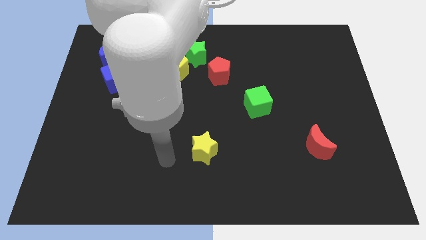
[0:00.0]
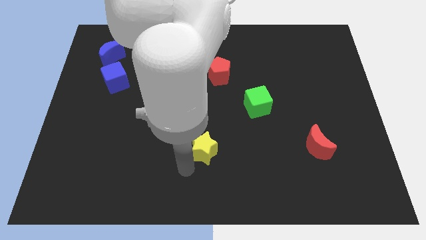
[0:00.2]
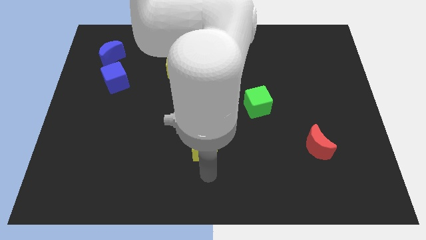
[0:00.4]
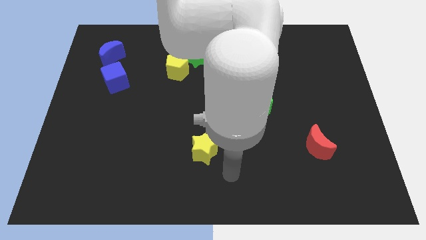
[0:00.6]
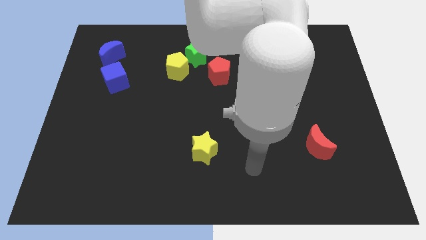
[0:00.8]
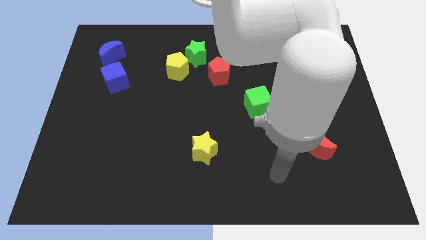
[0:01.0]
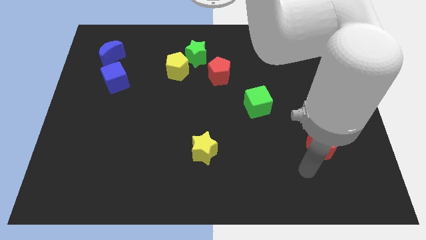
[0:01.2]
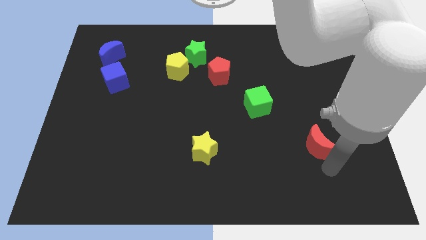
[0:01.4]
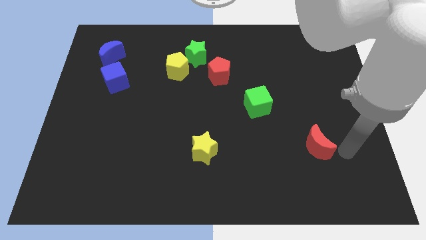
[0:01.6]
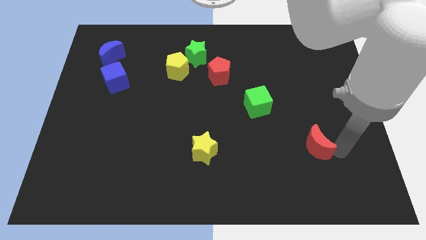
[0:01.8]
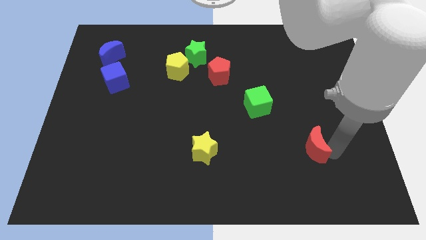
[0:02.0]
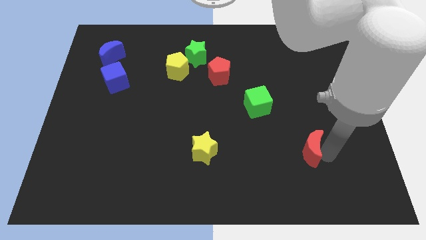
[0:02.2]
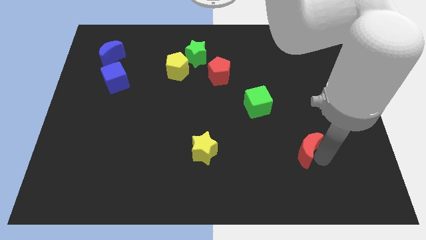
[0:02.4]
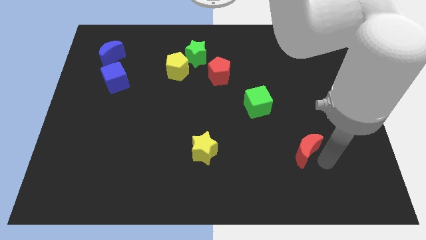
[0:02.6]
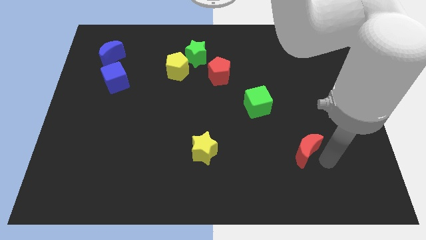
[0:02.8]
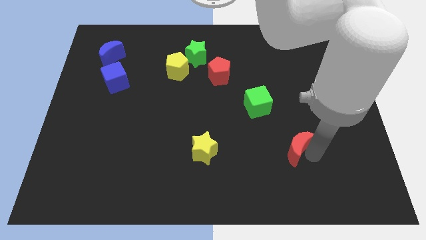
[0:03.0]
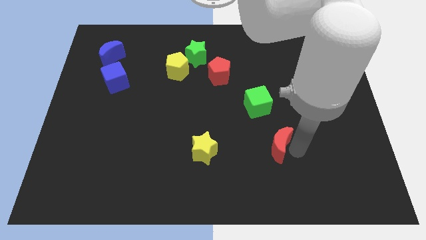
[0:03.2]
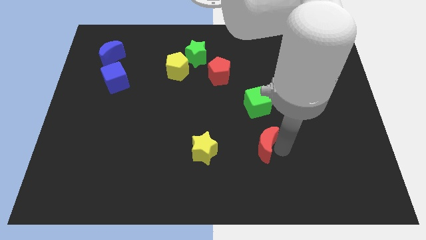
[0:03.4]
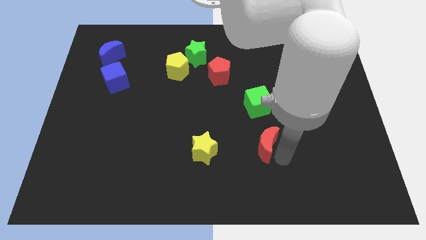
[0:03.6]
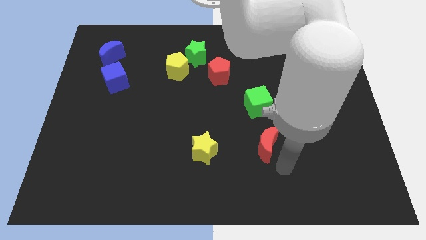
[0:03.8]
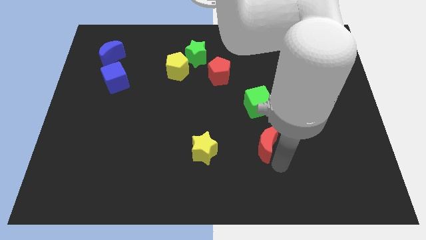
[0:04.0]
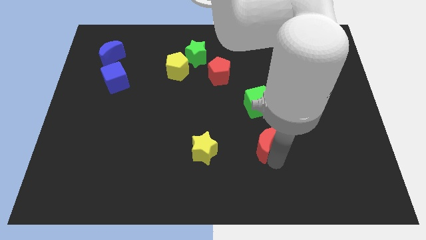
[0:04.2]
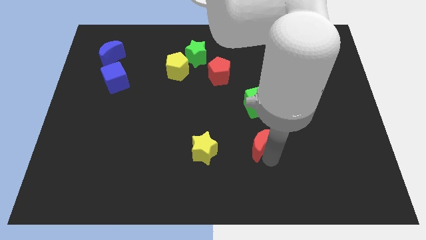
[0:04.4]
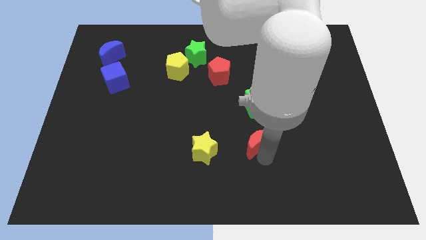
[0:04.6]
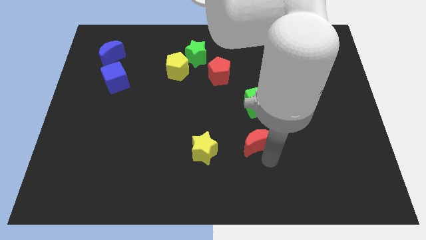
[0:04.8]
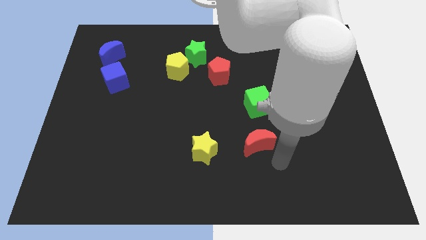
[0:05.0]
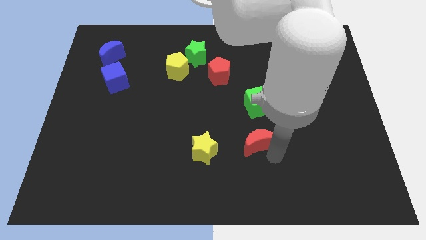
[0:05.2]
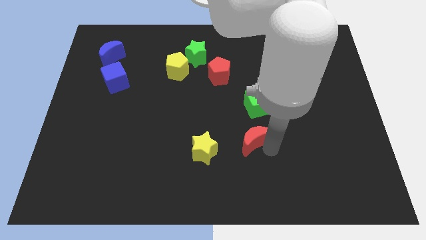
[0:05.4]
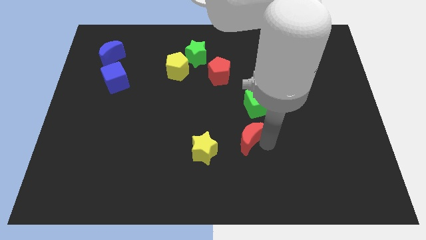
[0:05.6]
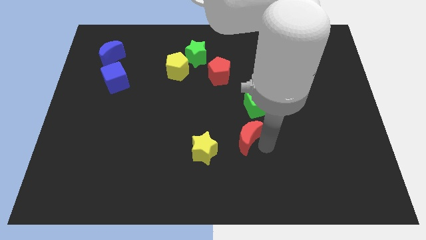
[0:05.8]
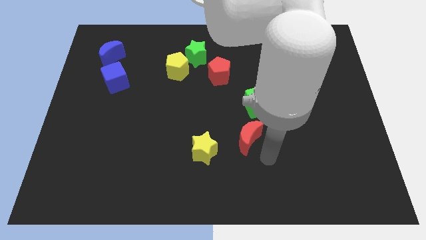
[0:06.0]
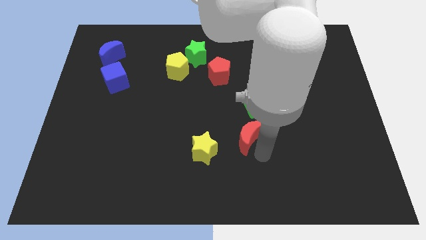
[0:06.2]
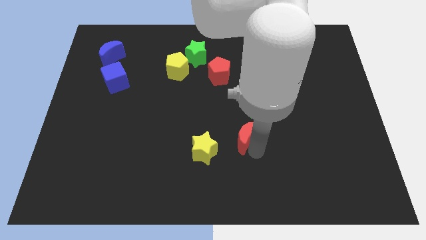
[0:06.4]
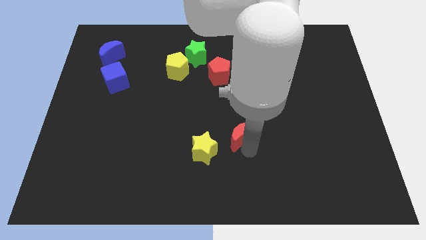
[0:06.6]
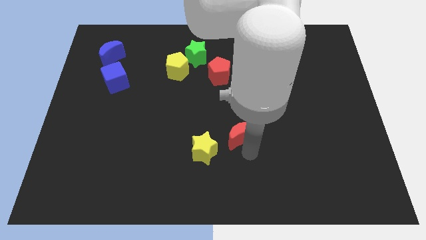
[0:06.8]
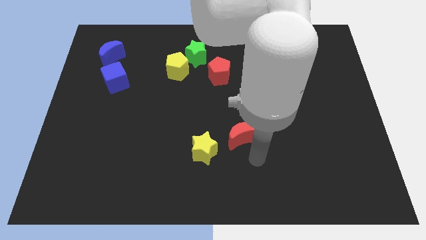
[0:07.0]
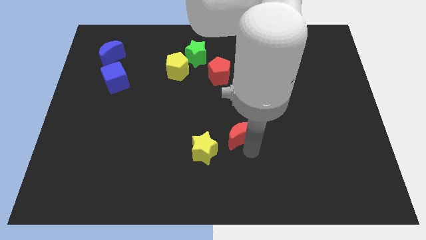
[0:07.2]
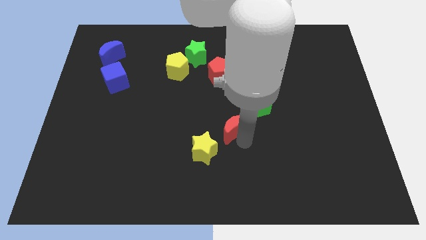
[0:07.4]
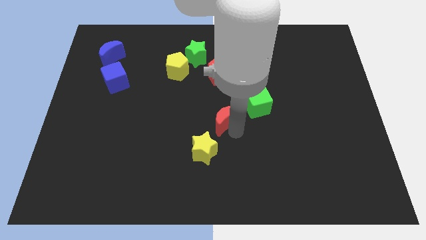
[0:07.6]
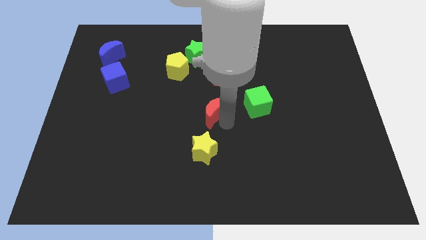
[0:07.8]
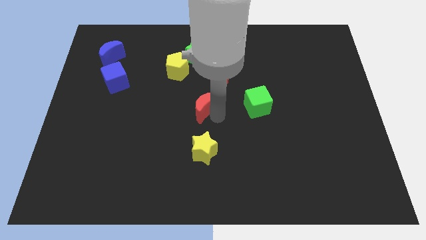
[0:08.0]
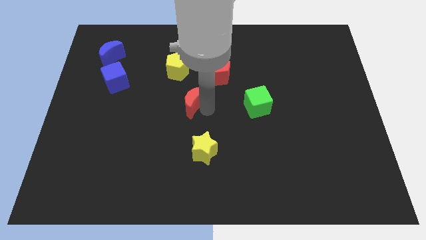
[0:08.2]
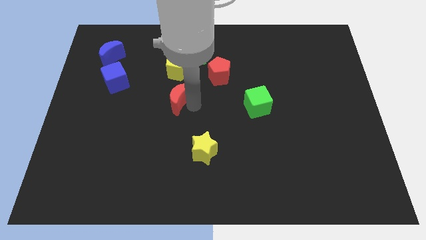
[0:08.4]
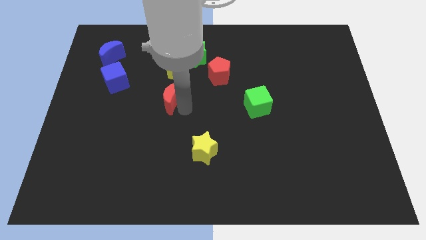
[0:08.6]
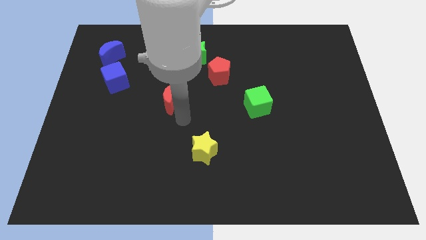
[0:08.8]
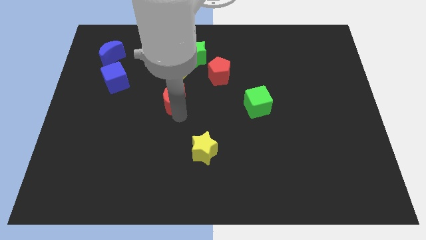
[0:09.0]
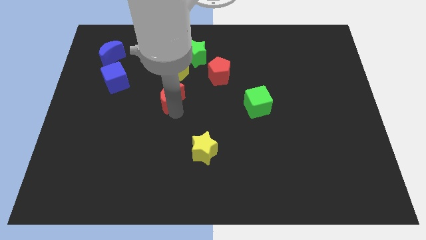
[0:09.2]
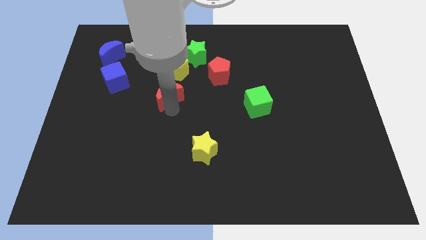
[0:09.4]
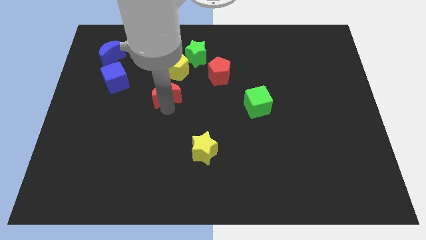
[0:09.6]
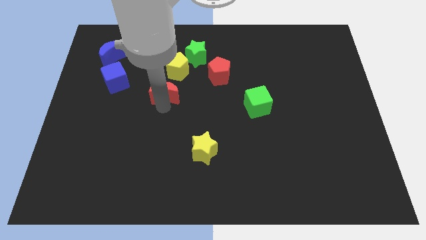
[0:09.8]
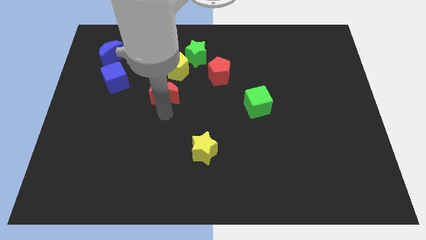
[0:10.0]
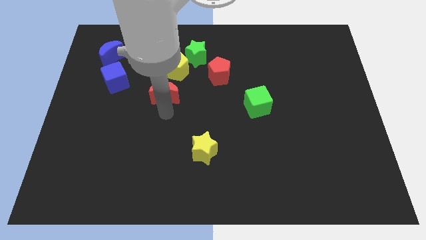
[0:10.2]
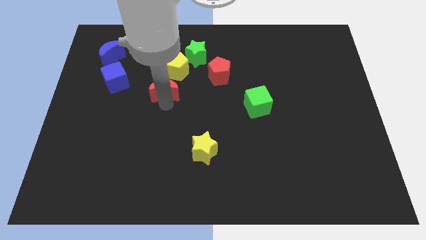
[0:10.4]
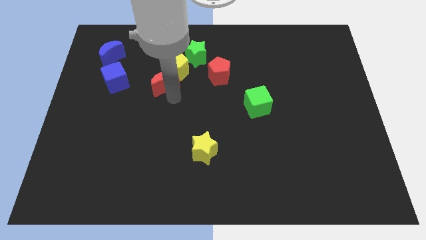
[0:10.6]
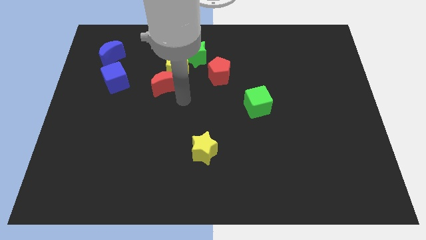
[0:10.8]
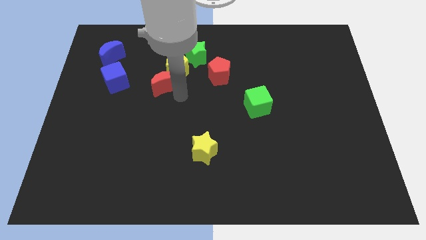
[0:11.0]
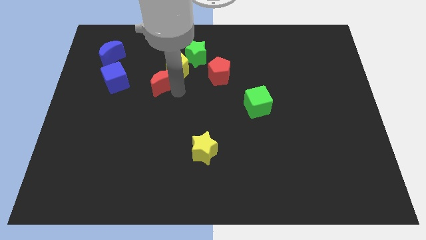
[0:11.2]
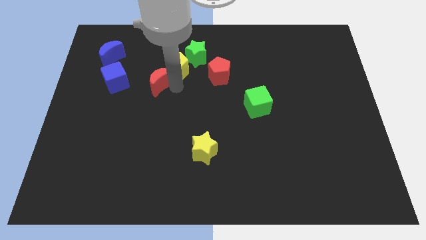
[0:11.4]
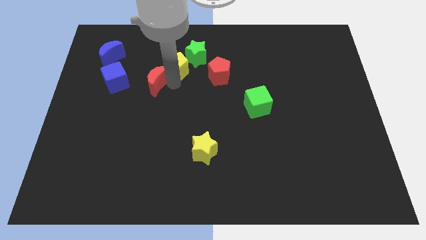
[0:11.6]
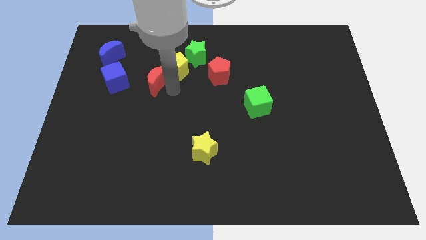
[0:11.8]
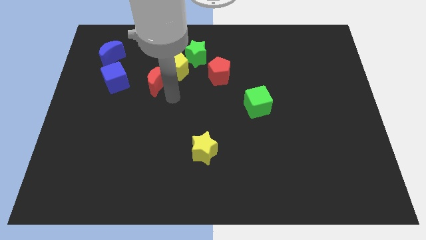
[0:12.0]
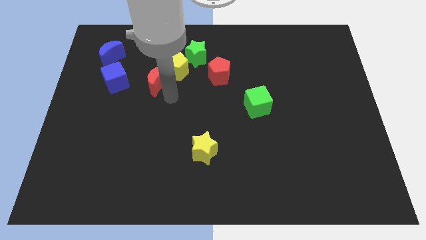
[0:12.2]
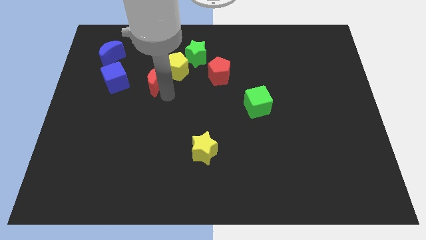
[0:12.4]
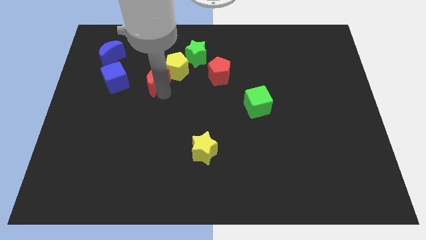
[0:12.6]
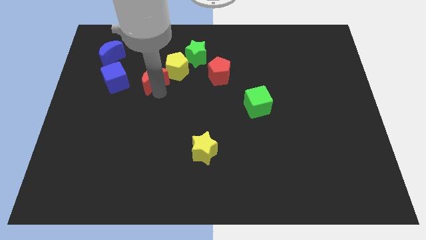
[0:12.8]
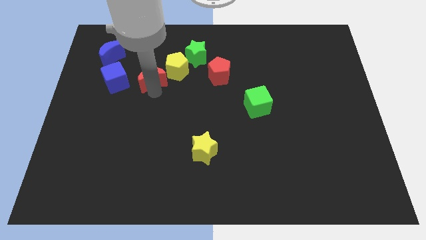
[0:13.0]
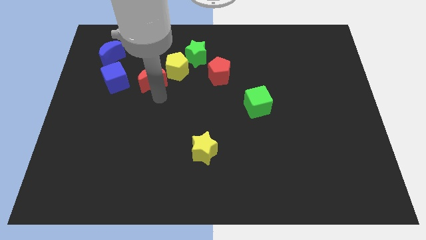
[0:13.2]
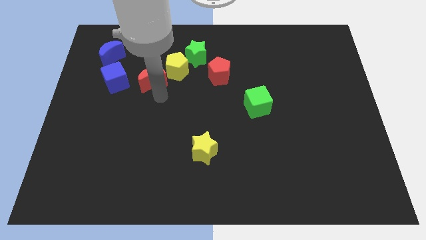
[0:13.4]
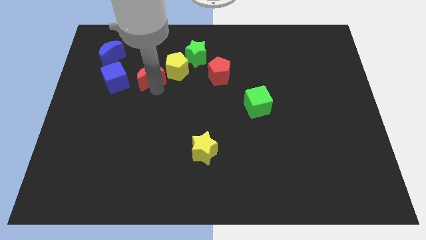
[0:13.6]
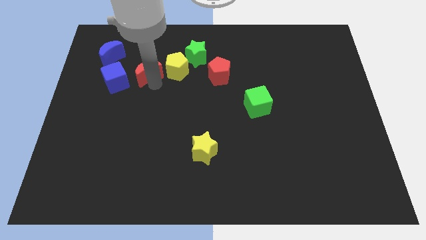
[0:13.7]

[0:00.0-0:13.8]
push the red moon to the top right of the blue cube
